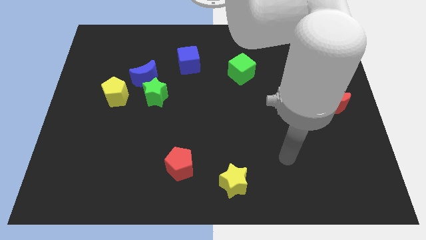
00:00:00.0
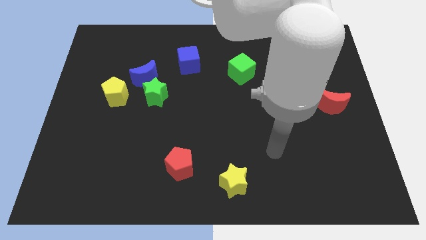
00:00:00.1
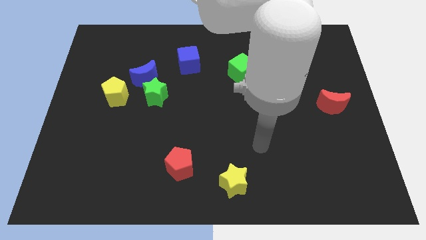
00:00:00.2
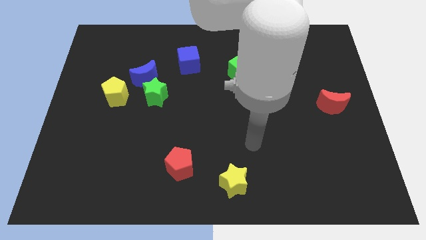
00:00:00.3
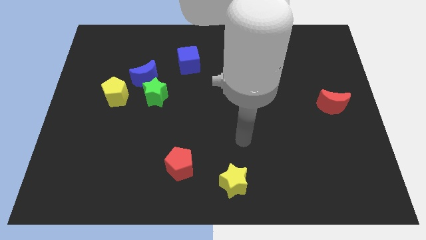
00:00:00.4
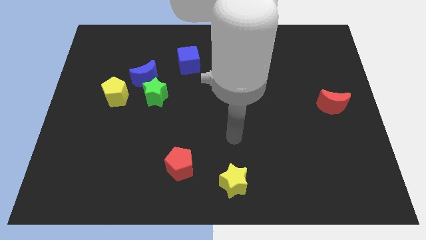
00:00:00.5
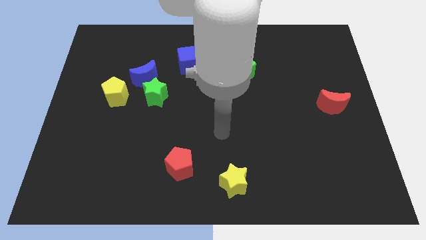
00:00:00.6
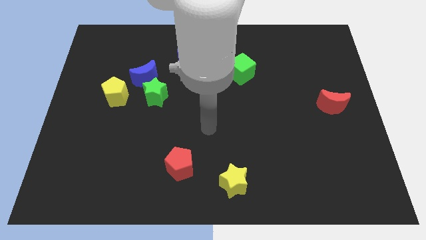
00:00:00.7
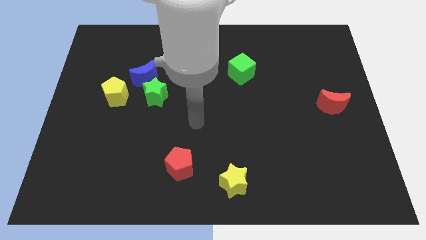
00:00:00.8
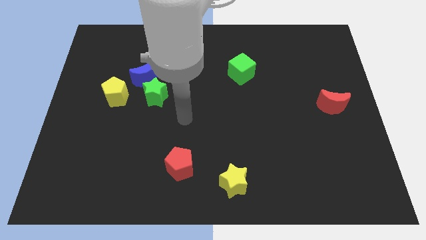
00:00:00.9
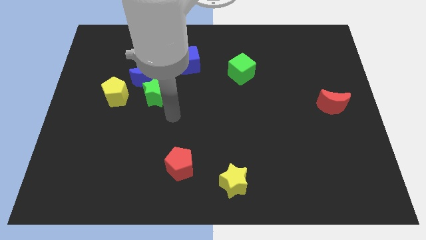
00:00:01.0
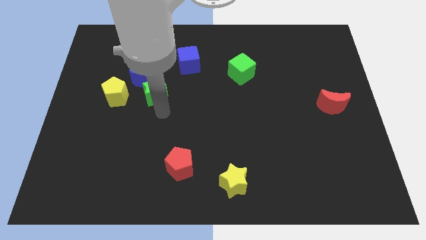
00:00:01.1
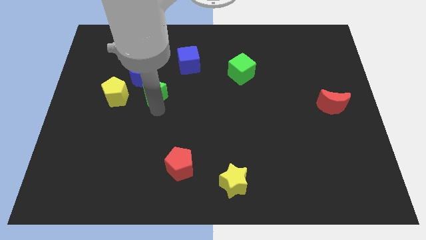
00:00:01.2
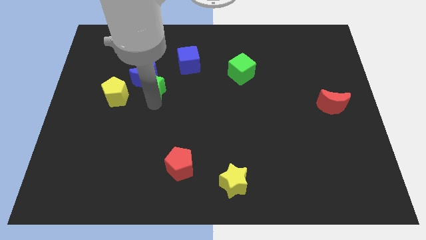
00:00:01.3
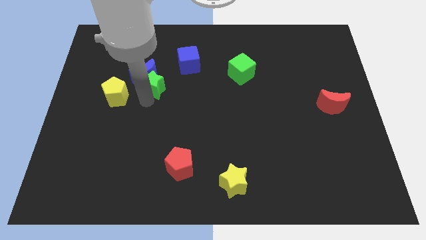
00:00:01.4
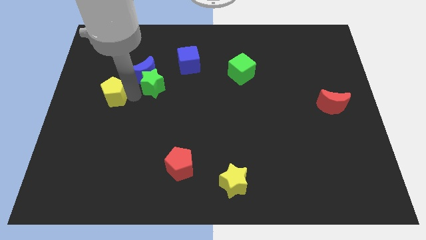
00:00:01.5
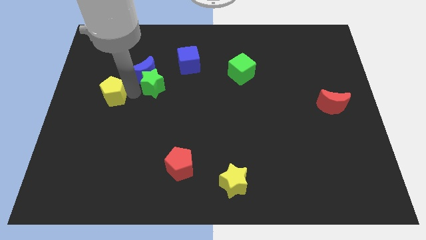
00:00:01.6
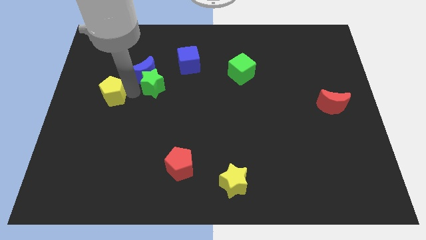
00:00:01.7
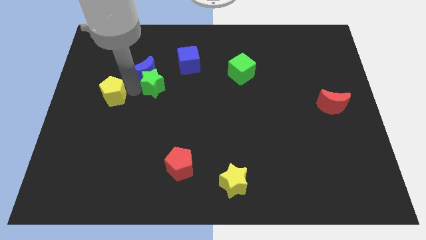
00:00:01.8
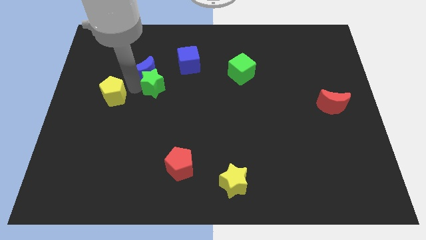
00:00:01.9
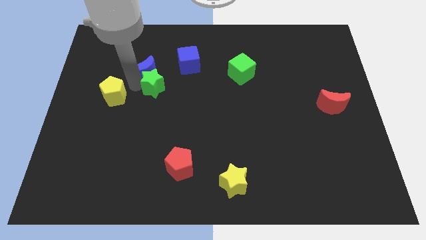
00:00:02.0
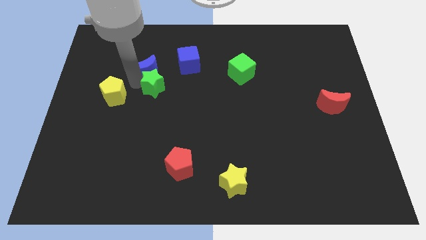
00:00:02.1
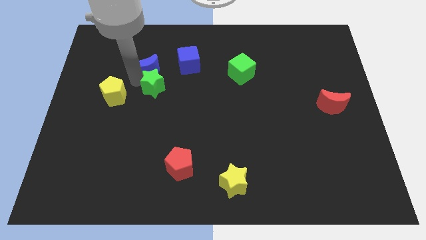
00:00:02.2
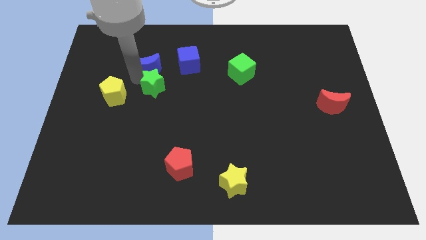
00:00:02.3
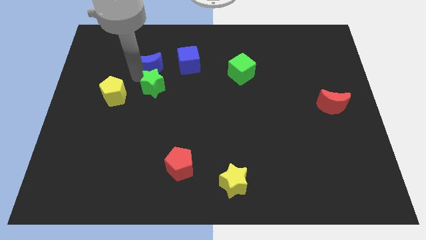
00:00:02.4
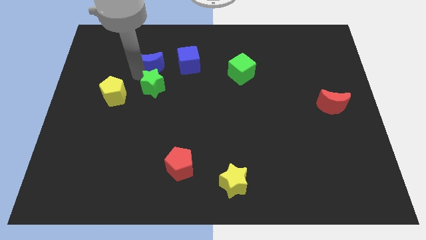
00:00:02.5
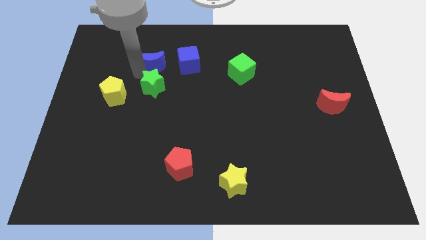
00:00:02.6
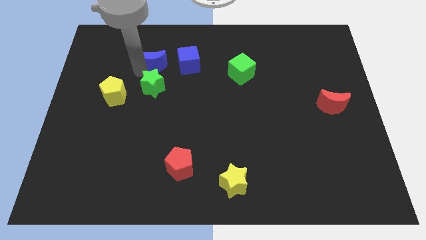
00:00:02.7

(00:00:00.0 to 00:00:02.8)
move the blue moon away from the green star and yellow pentagon

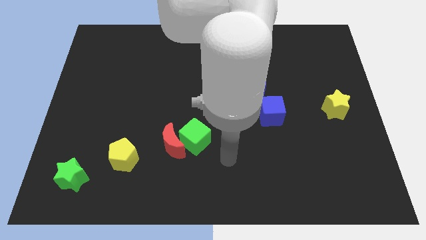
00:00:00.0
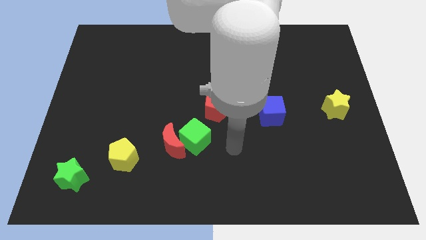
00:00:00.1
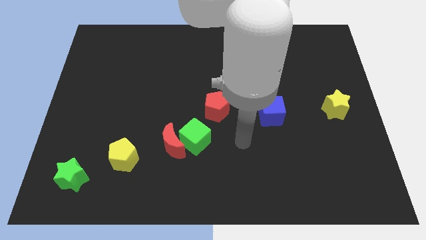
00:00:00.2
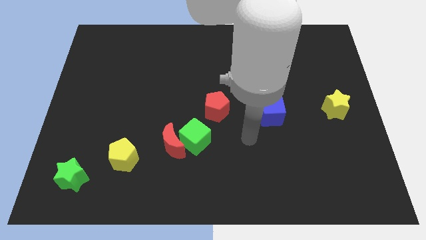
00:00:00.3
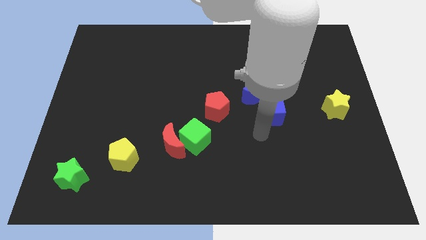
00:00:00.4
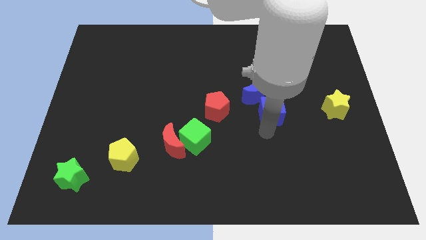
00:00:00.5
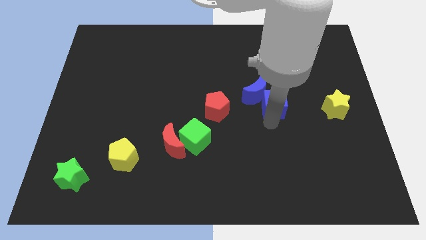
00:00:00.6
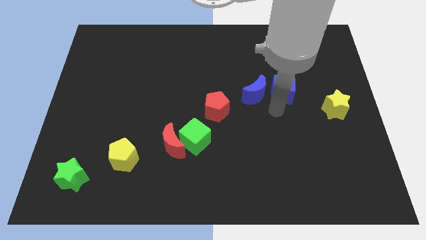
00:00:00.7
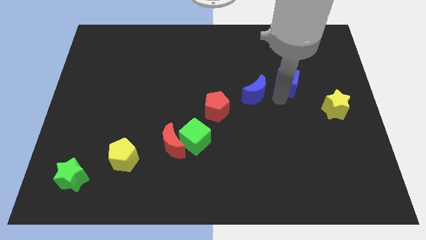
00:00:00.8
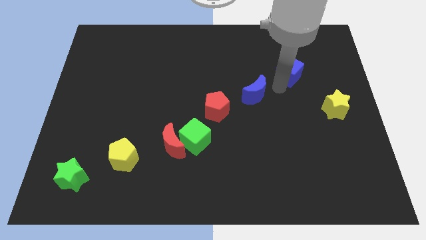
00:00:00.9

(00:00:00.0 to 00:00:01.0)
move the blue moon away from the blue cube

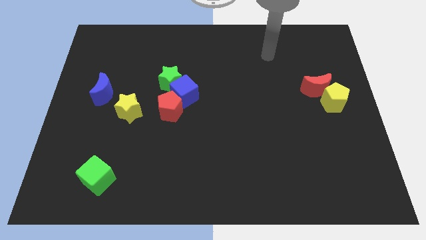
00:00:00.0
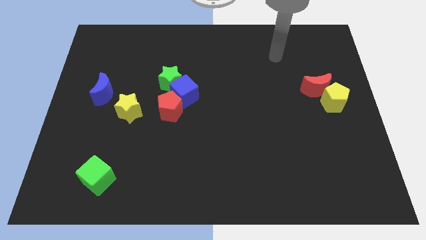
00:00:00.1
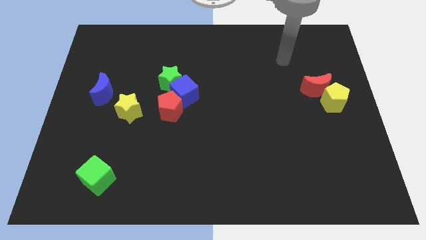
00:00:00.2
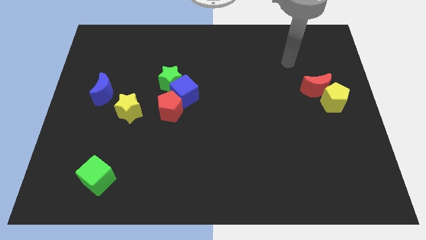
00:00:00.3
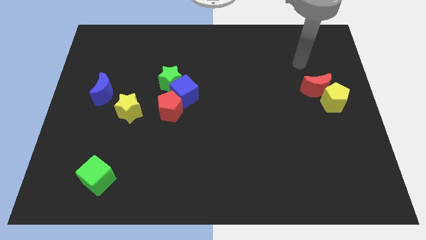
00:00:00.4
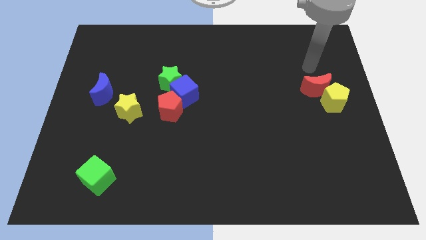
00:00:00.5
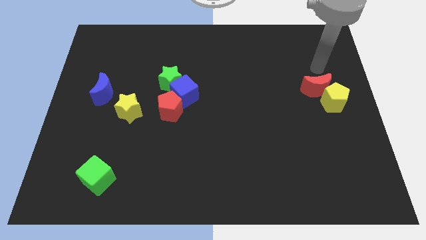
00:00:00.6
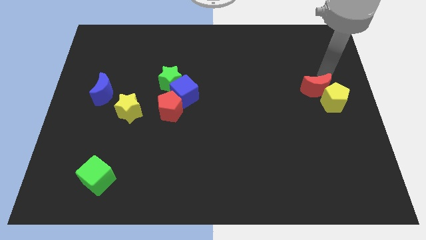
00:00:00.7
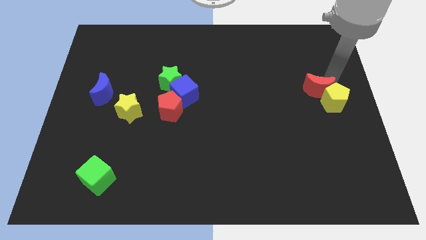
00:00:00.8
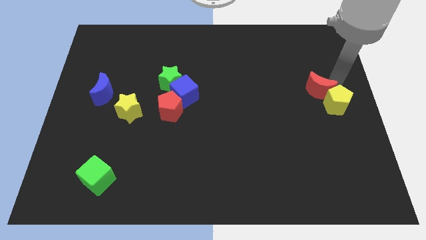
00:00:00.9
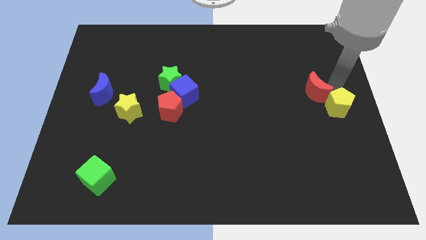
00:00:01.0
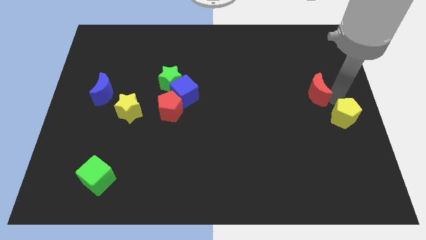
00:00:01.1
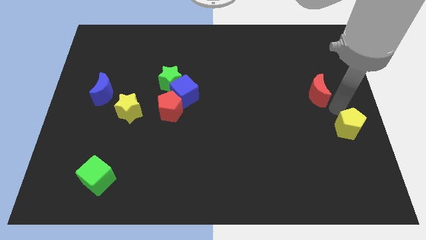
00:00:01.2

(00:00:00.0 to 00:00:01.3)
pull the red moon apart from the yellow pentagon

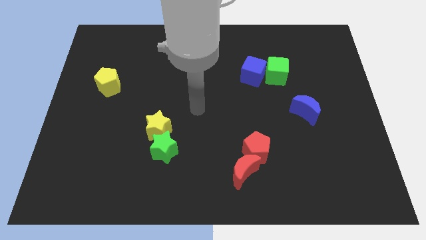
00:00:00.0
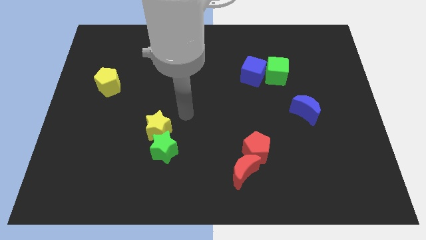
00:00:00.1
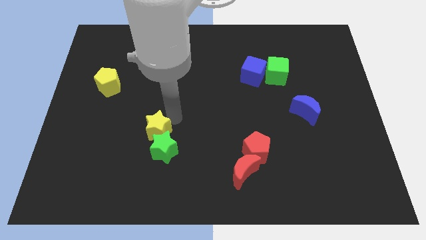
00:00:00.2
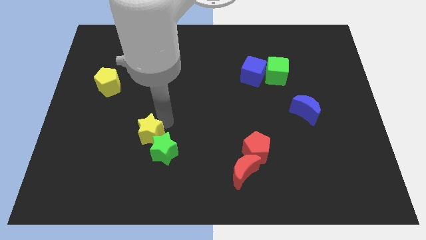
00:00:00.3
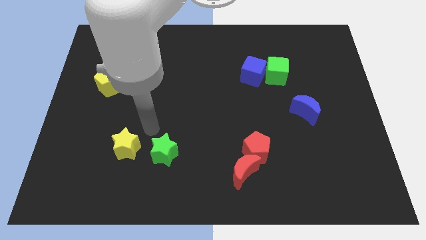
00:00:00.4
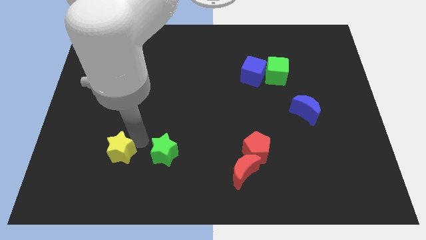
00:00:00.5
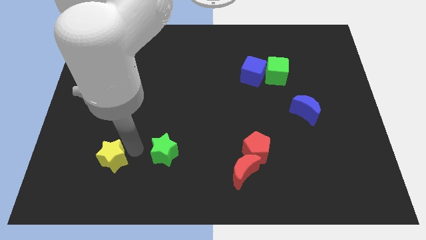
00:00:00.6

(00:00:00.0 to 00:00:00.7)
separate the green star from the yellow star

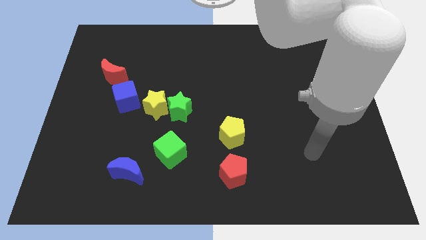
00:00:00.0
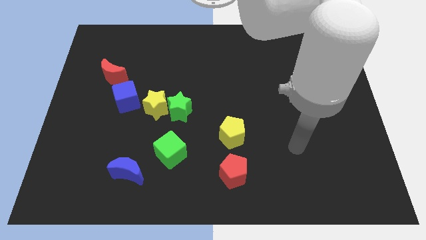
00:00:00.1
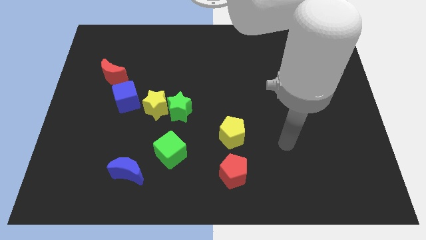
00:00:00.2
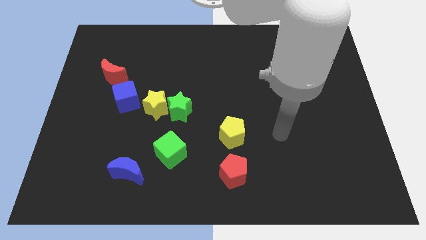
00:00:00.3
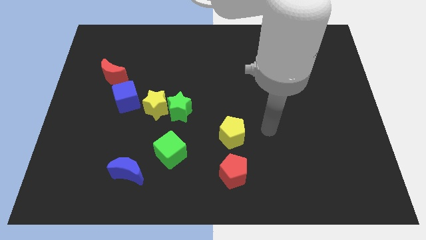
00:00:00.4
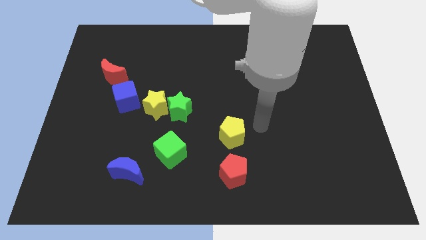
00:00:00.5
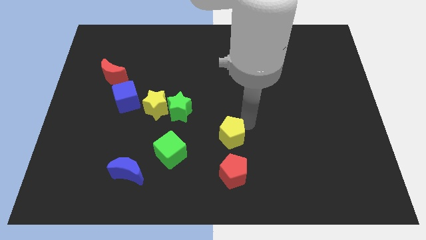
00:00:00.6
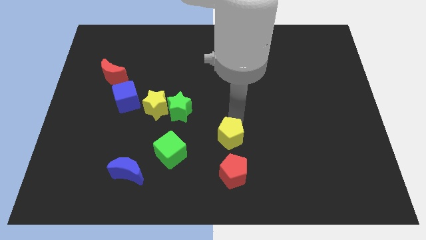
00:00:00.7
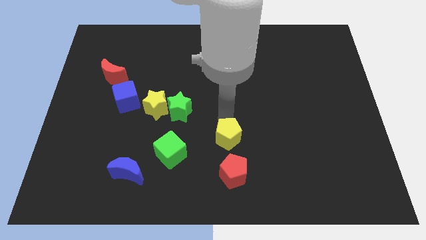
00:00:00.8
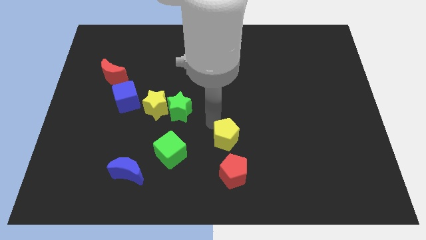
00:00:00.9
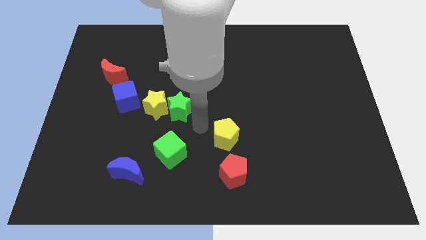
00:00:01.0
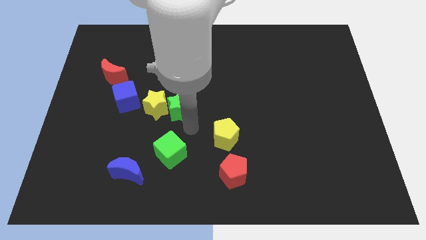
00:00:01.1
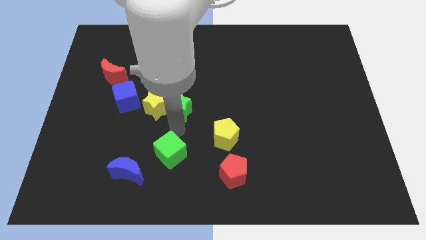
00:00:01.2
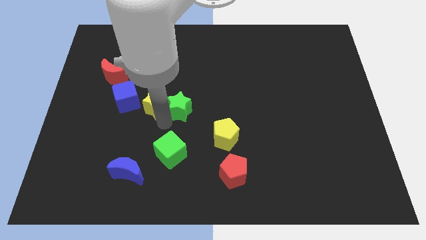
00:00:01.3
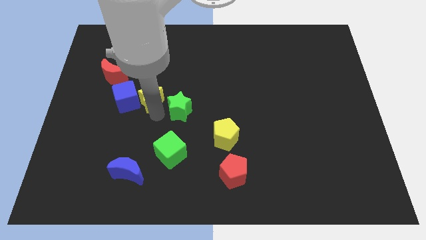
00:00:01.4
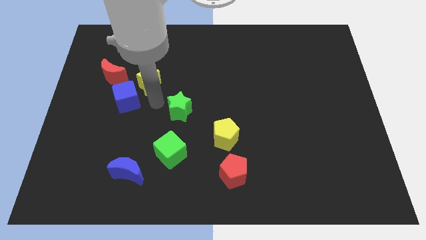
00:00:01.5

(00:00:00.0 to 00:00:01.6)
move the green star away from the yellow star

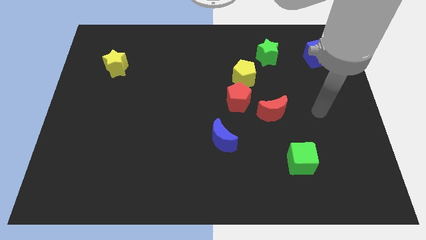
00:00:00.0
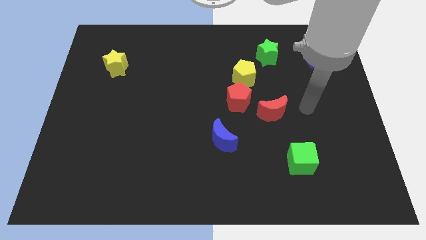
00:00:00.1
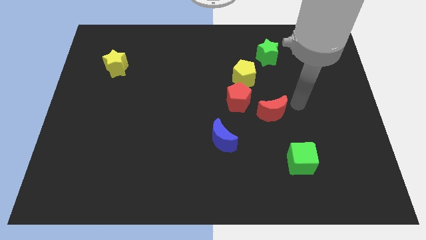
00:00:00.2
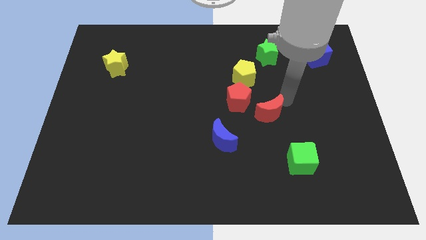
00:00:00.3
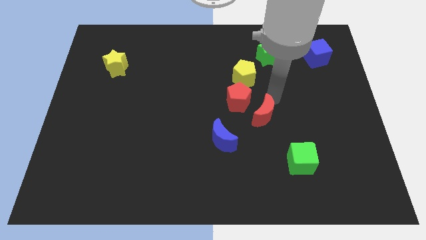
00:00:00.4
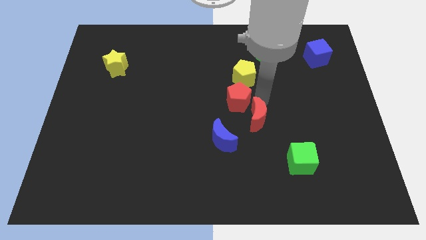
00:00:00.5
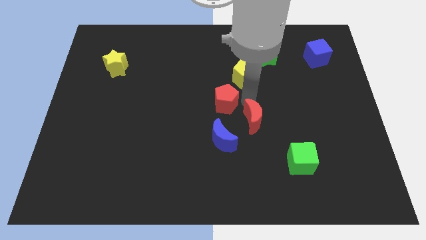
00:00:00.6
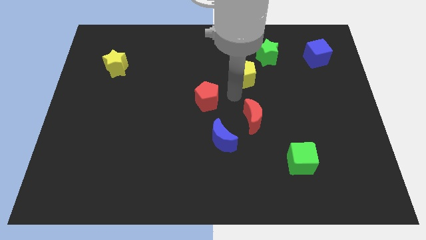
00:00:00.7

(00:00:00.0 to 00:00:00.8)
pull the yellow pentagon apart from the red pentagon

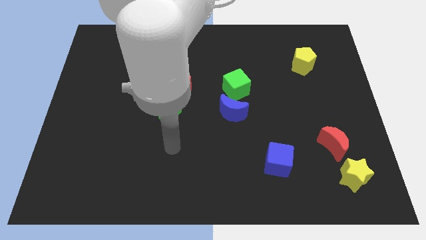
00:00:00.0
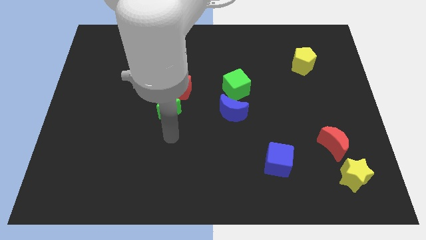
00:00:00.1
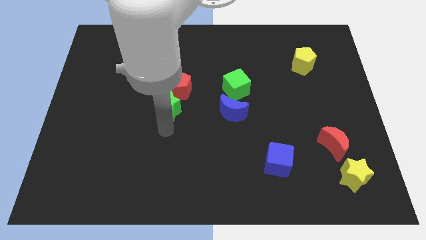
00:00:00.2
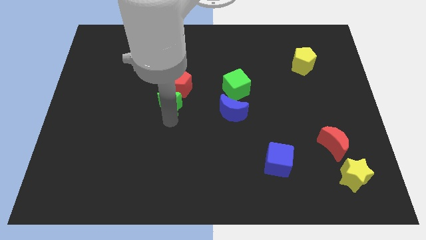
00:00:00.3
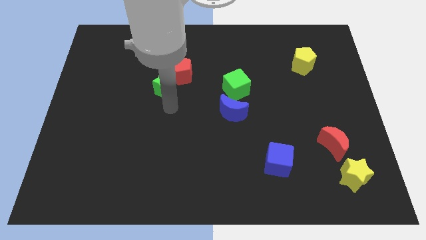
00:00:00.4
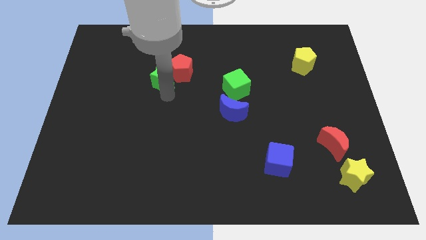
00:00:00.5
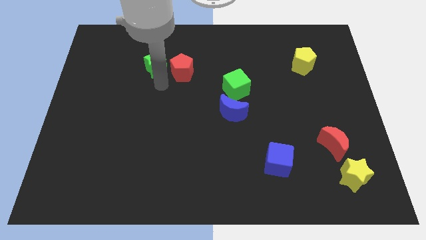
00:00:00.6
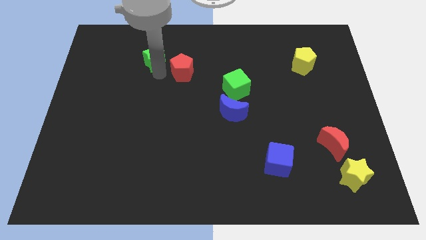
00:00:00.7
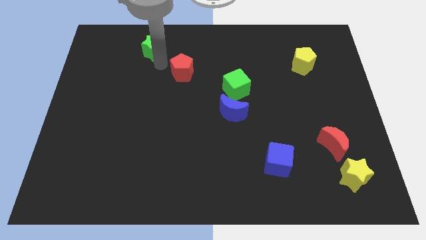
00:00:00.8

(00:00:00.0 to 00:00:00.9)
move the red pentagon away from the green star

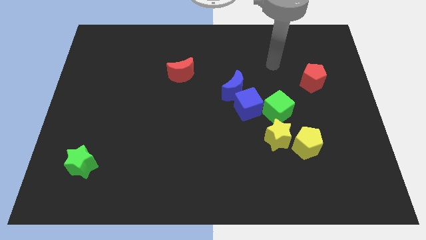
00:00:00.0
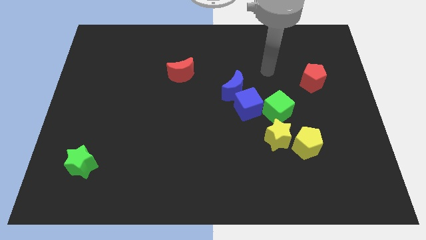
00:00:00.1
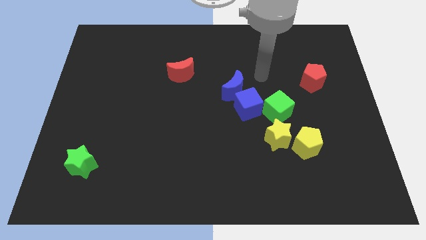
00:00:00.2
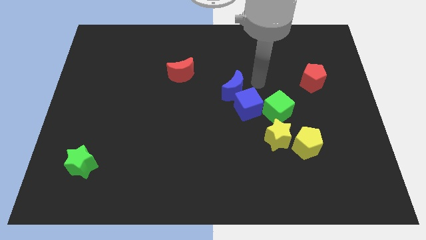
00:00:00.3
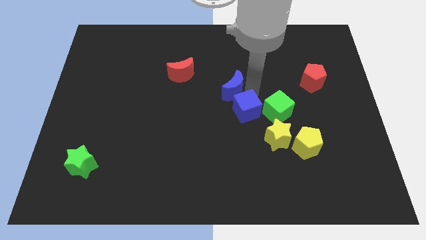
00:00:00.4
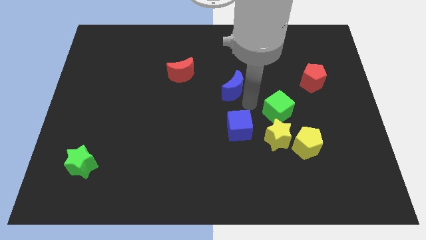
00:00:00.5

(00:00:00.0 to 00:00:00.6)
pull the blue moon apart from the blue cube
